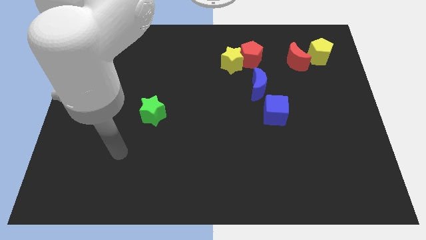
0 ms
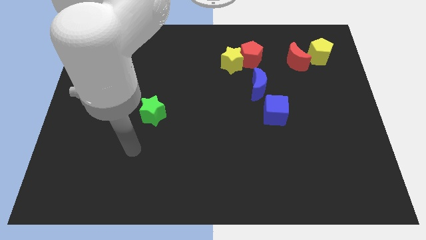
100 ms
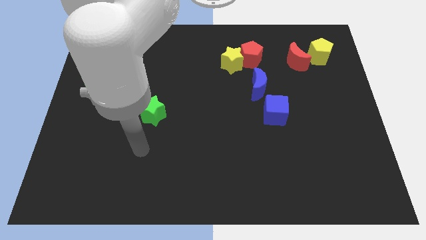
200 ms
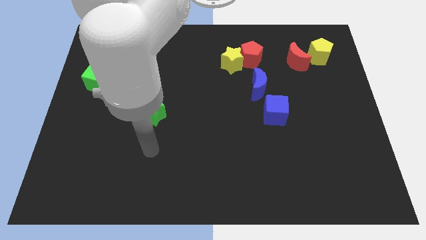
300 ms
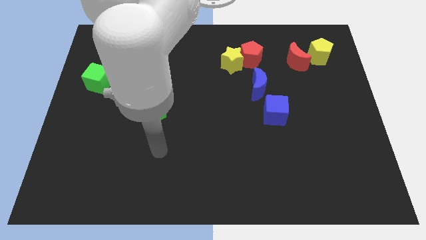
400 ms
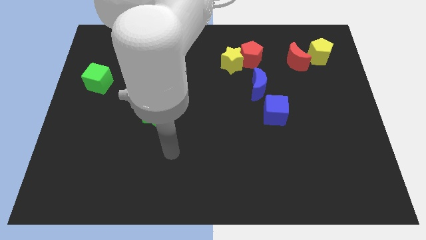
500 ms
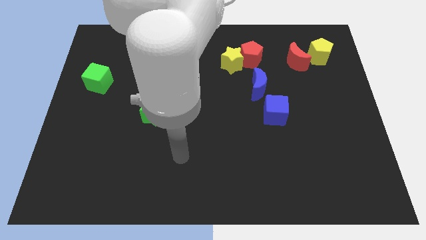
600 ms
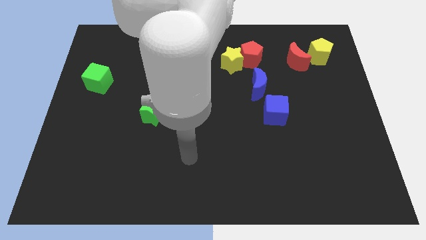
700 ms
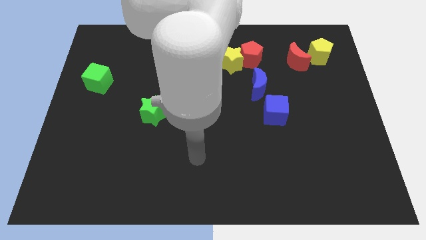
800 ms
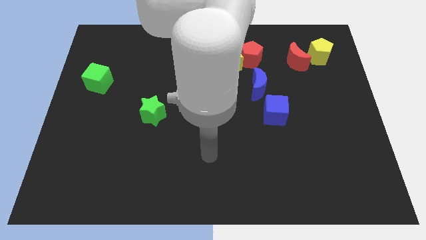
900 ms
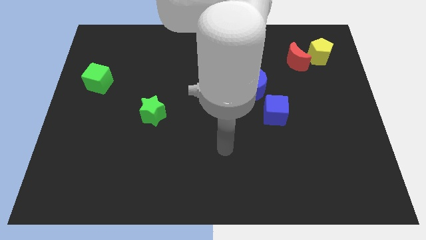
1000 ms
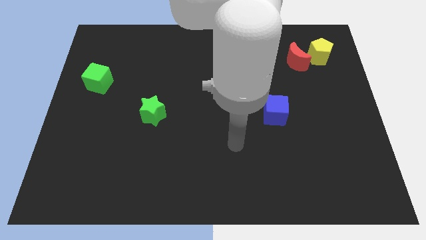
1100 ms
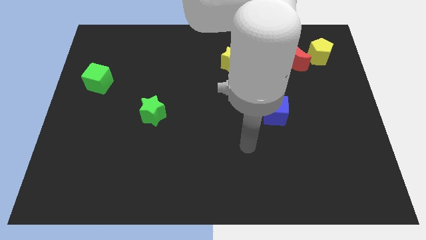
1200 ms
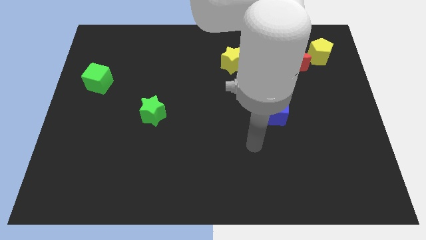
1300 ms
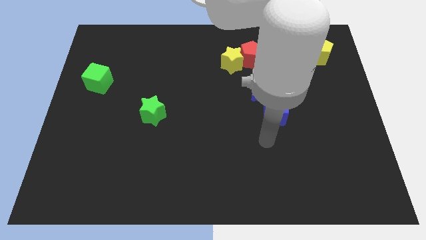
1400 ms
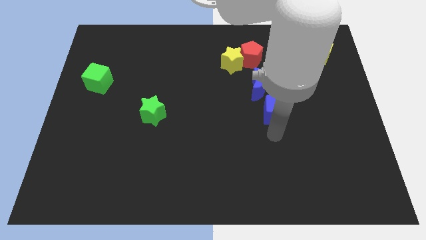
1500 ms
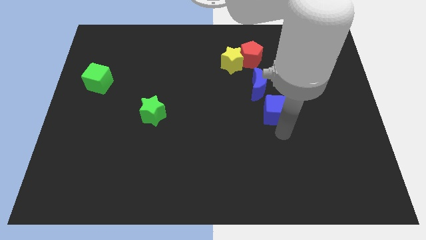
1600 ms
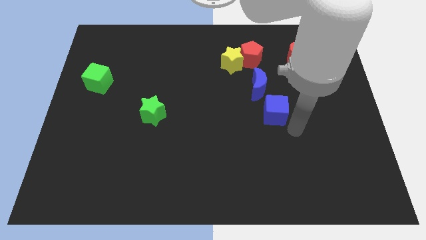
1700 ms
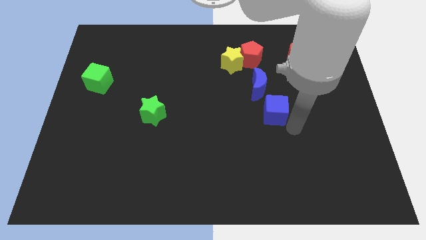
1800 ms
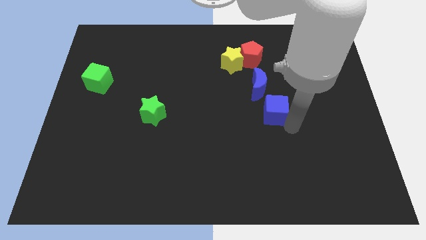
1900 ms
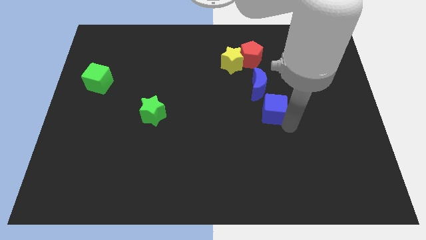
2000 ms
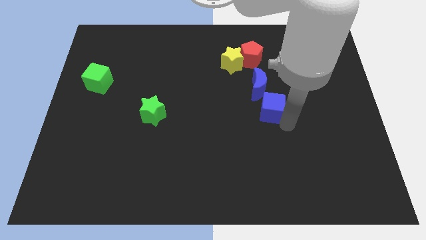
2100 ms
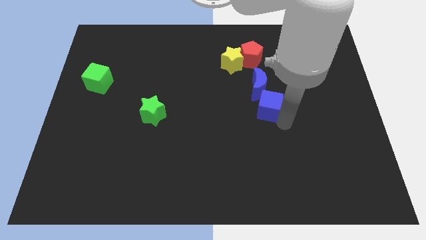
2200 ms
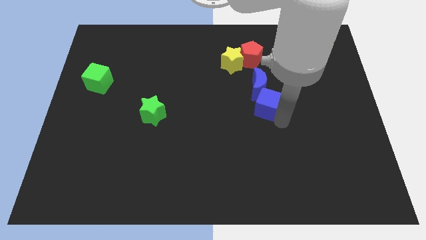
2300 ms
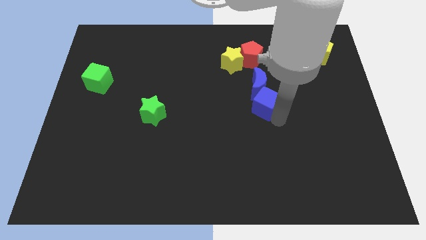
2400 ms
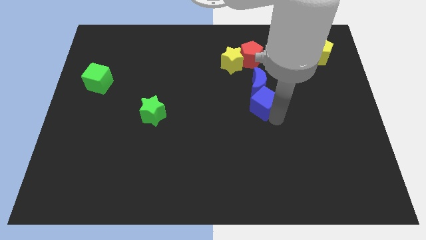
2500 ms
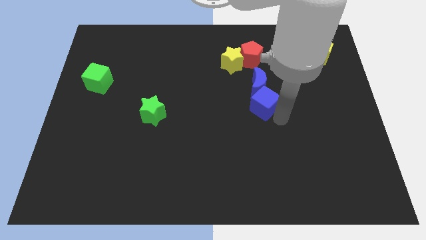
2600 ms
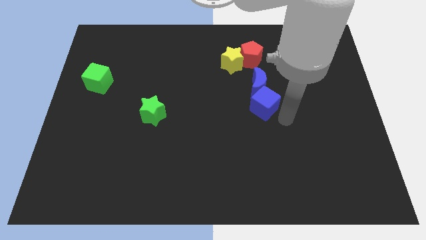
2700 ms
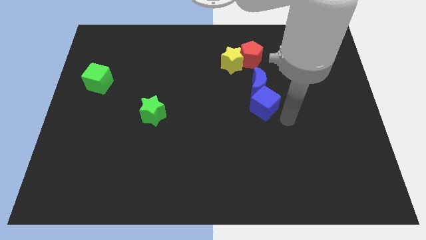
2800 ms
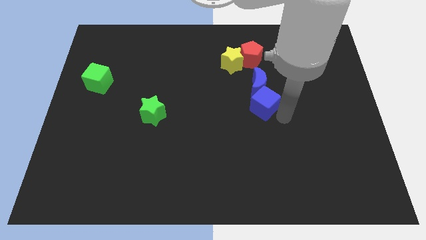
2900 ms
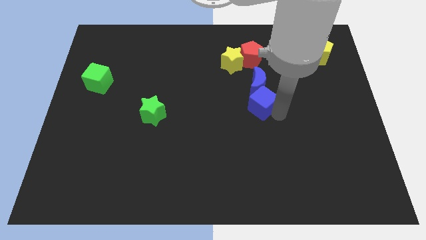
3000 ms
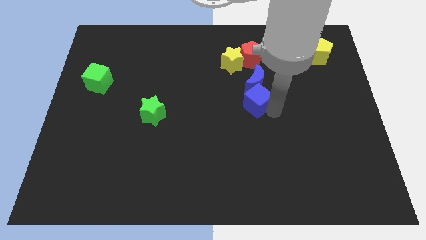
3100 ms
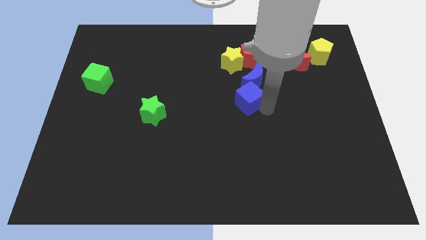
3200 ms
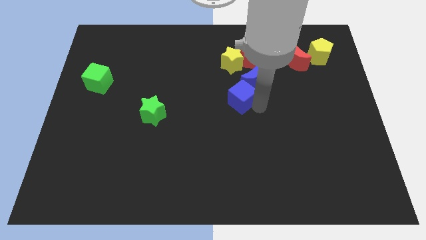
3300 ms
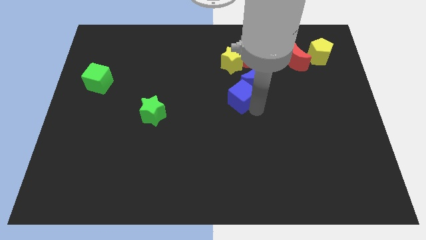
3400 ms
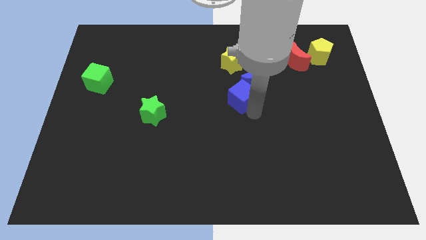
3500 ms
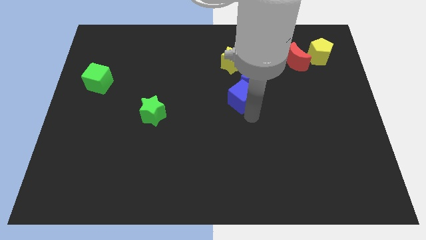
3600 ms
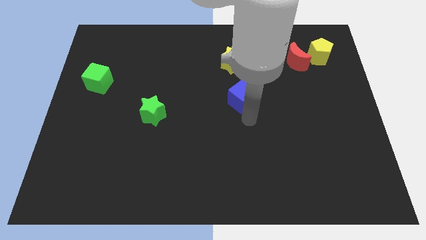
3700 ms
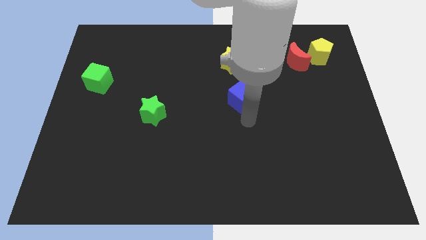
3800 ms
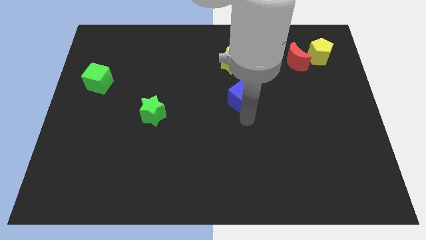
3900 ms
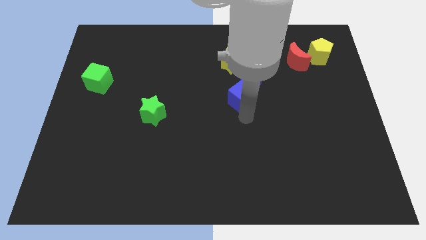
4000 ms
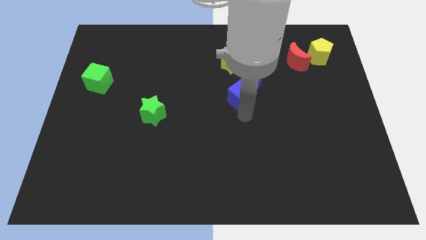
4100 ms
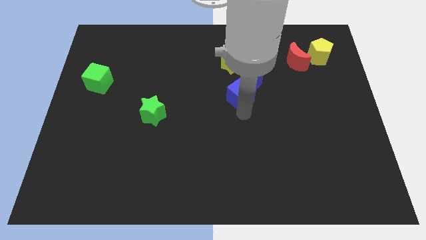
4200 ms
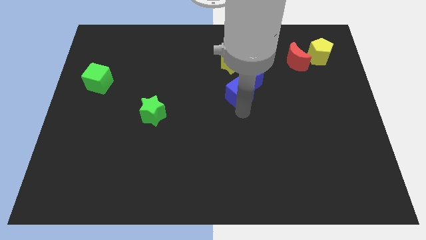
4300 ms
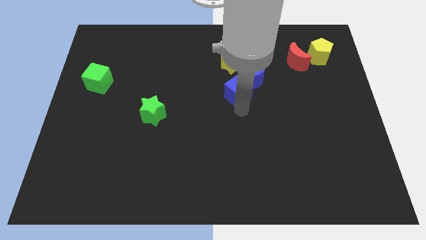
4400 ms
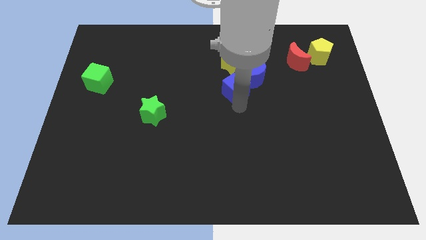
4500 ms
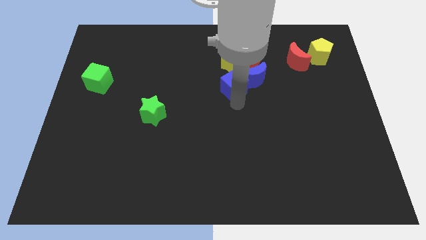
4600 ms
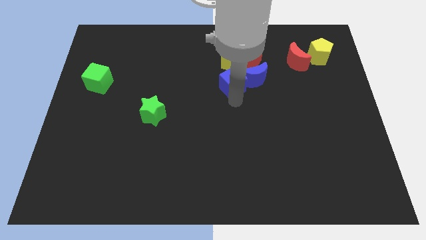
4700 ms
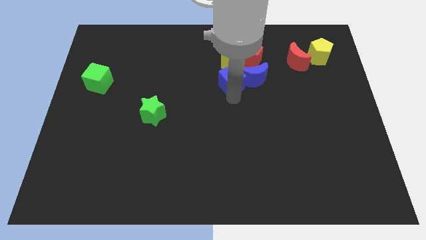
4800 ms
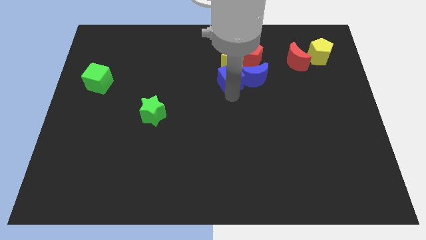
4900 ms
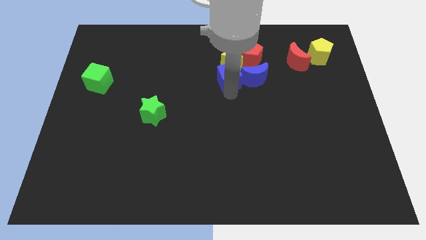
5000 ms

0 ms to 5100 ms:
put the blue cube to the yellow star
